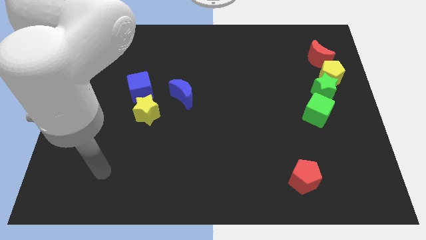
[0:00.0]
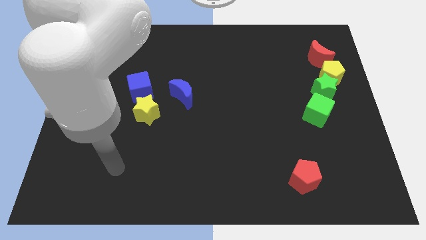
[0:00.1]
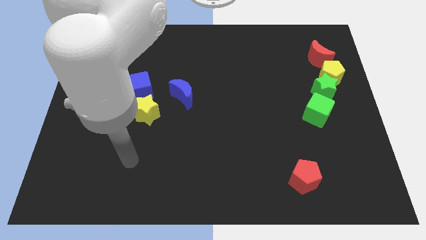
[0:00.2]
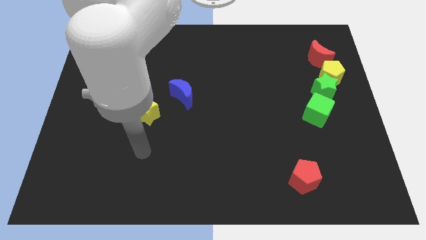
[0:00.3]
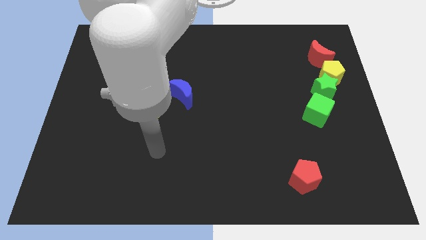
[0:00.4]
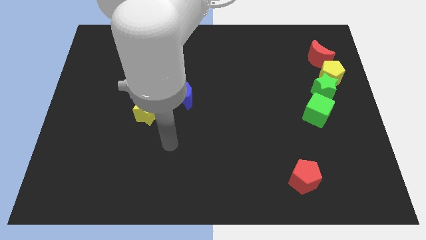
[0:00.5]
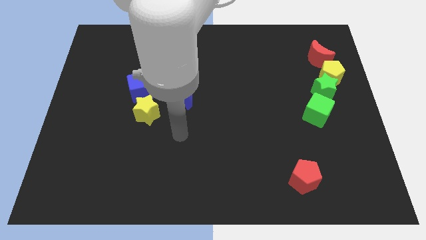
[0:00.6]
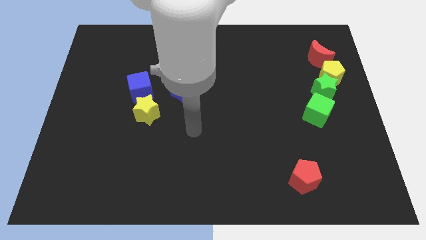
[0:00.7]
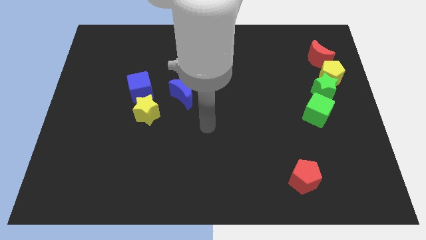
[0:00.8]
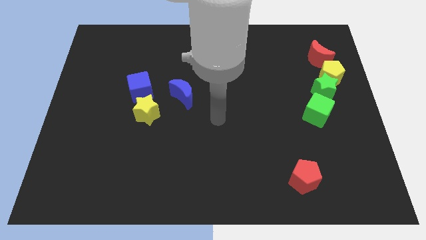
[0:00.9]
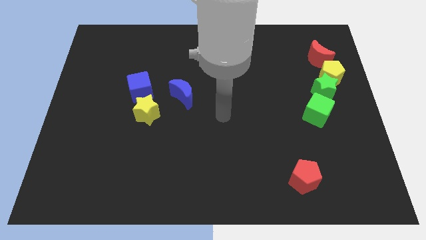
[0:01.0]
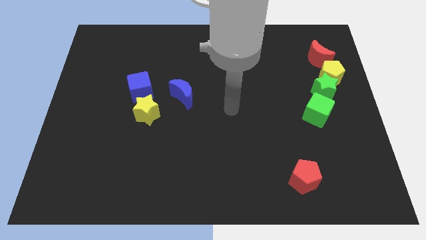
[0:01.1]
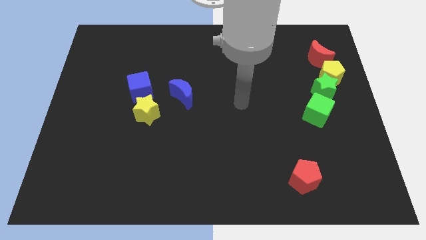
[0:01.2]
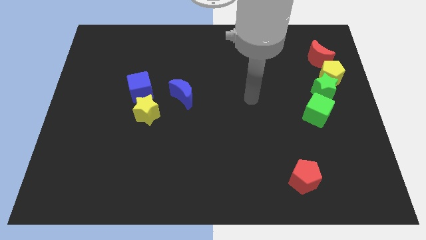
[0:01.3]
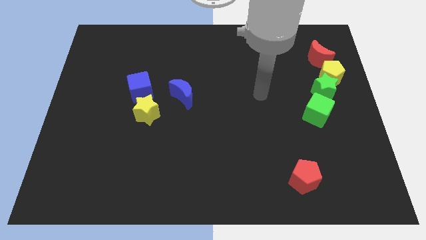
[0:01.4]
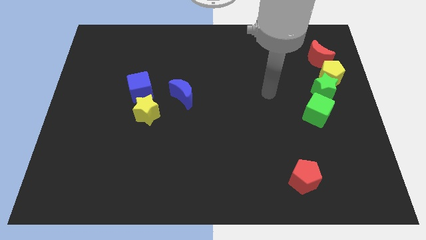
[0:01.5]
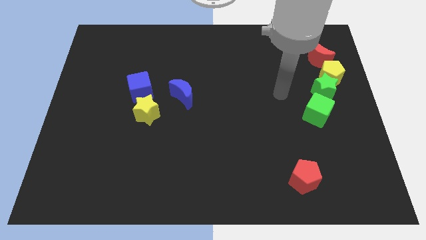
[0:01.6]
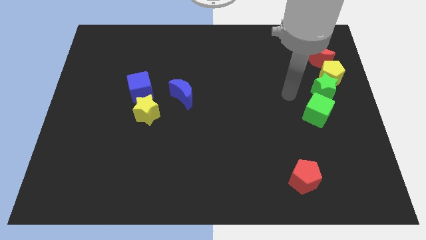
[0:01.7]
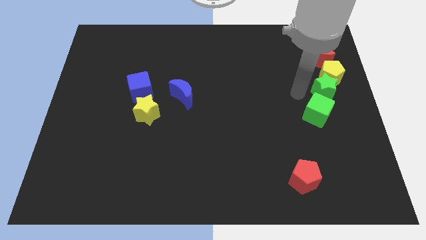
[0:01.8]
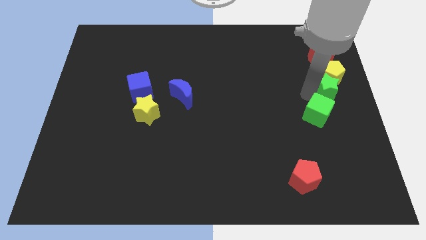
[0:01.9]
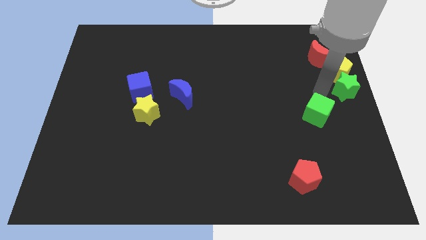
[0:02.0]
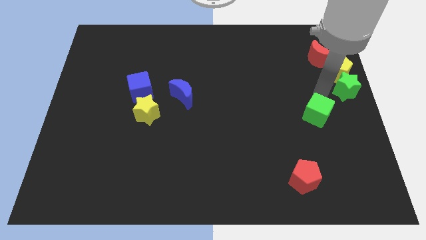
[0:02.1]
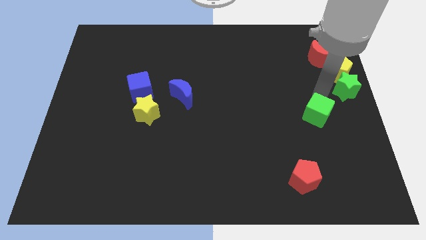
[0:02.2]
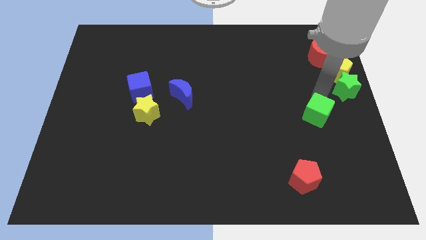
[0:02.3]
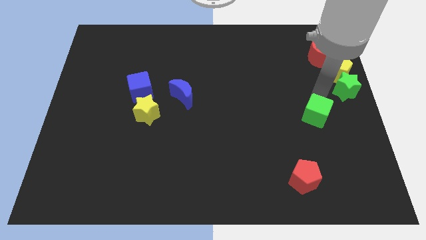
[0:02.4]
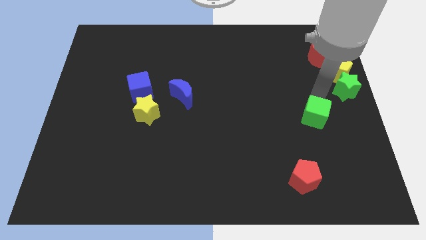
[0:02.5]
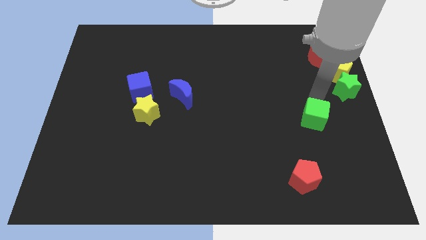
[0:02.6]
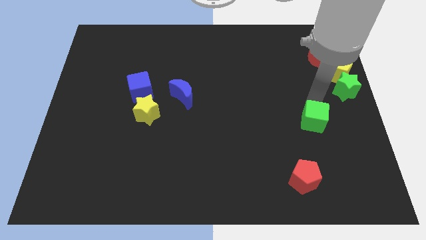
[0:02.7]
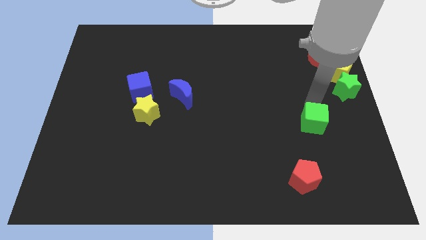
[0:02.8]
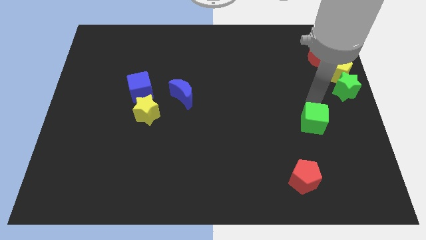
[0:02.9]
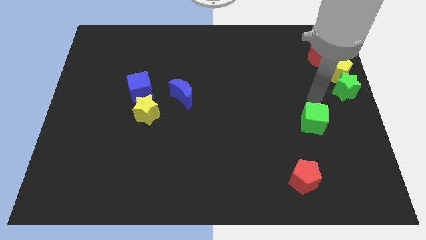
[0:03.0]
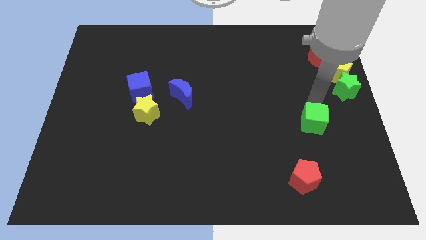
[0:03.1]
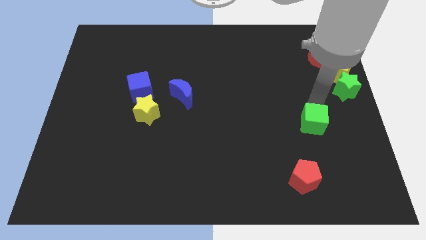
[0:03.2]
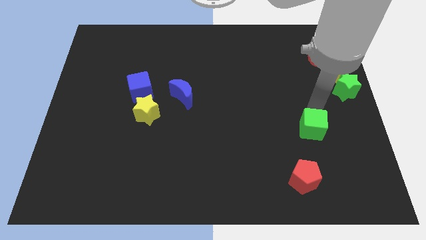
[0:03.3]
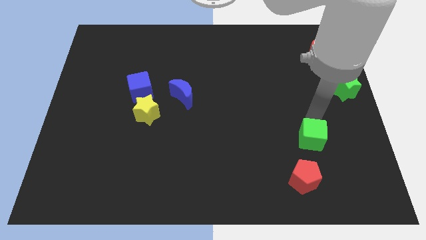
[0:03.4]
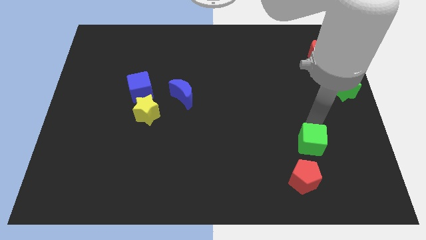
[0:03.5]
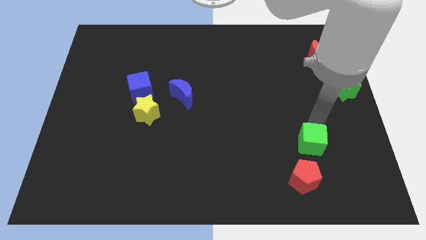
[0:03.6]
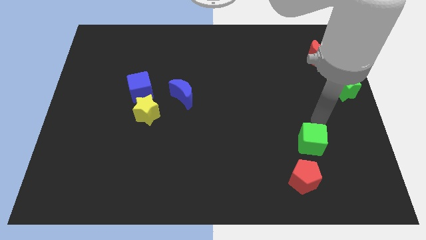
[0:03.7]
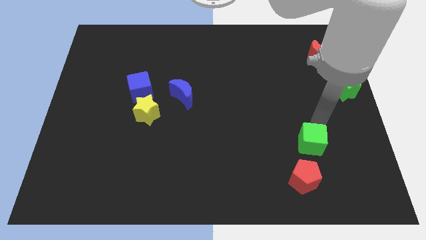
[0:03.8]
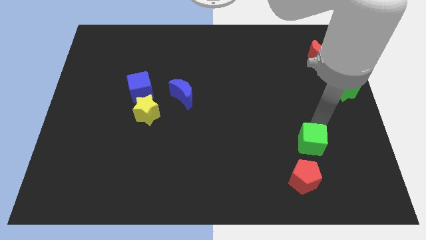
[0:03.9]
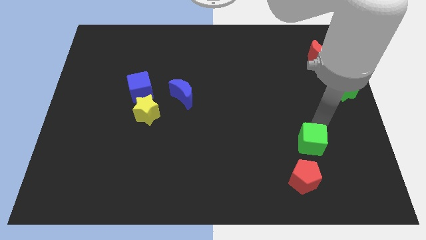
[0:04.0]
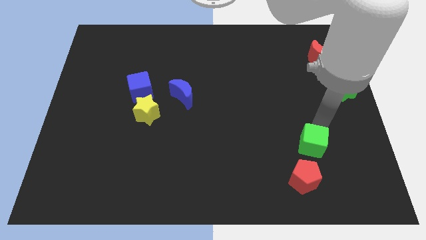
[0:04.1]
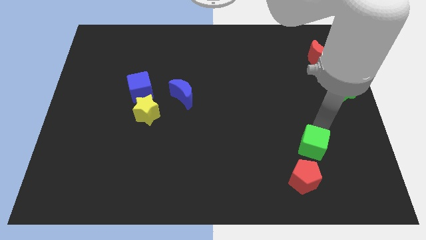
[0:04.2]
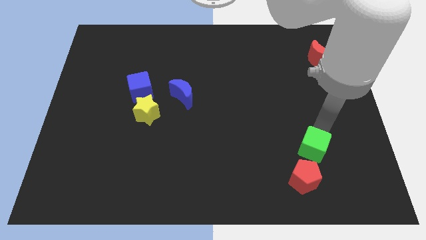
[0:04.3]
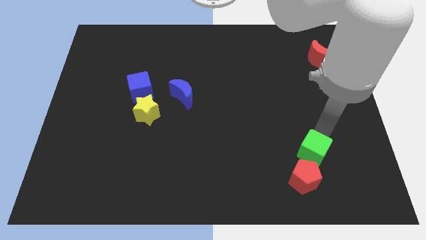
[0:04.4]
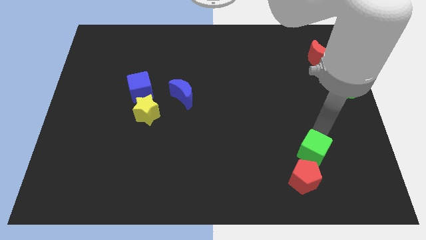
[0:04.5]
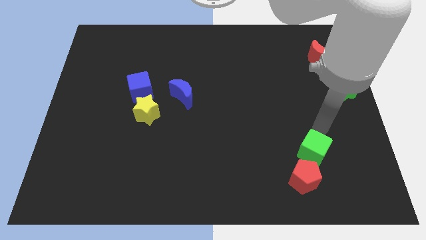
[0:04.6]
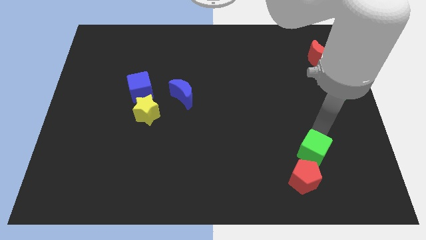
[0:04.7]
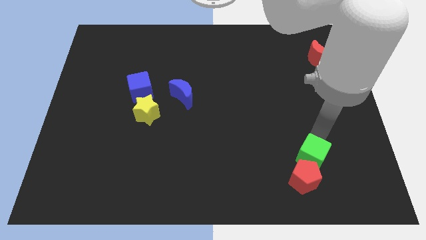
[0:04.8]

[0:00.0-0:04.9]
put the green cube close to the red pentagon

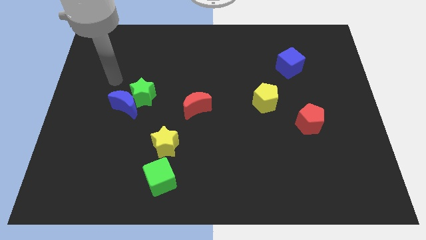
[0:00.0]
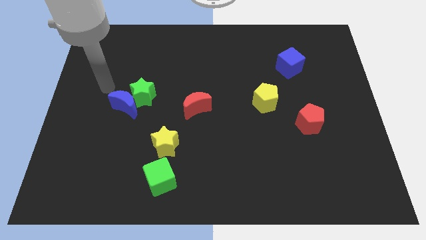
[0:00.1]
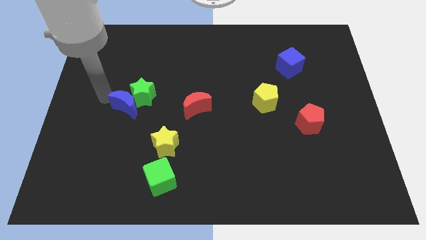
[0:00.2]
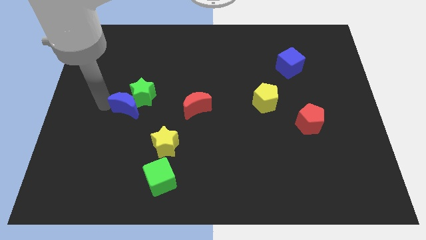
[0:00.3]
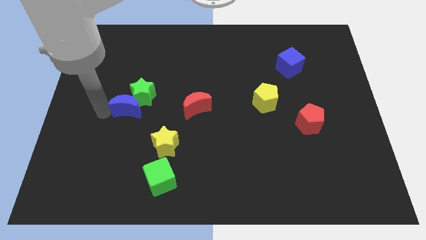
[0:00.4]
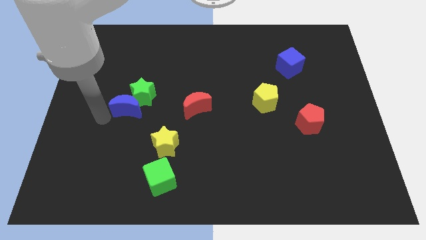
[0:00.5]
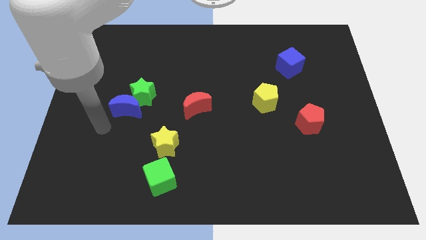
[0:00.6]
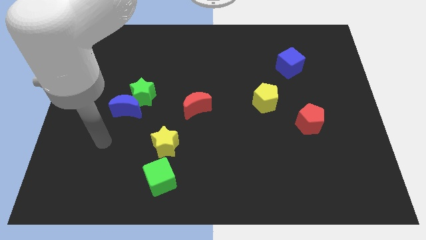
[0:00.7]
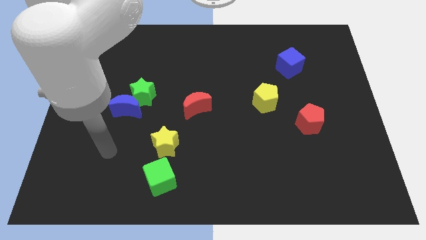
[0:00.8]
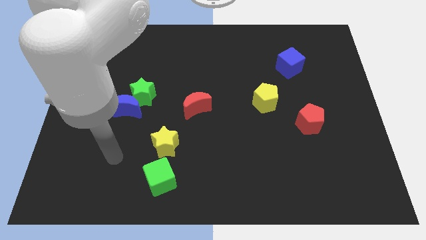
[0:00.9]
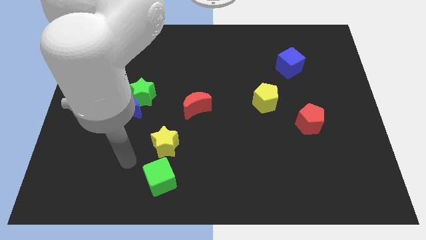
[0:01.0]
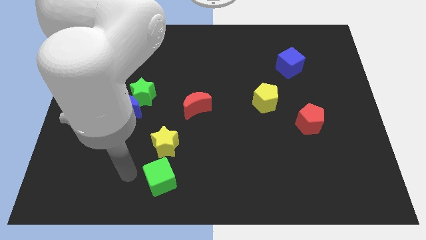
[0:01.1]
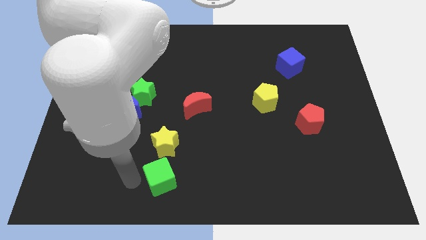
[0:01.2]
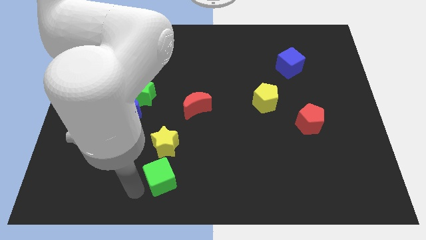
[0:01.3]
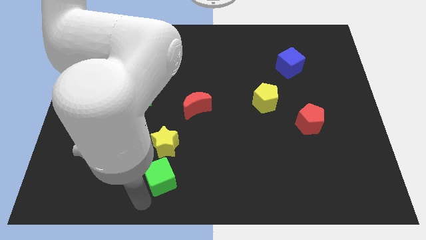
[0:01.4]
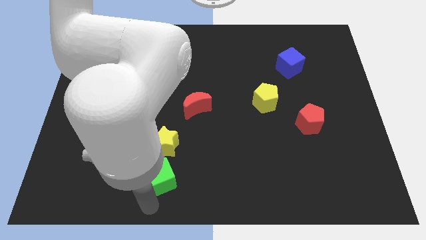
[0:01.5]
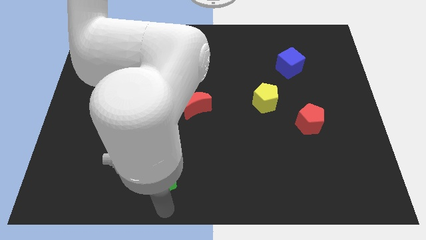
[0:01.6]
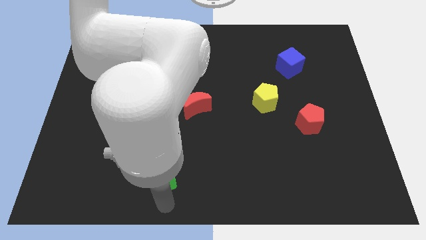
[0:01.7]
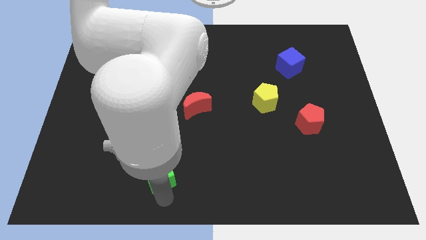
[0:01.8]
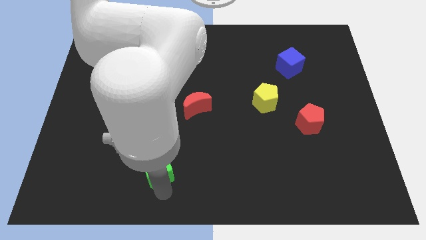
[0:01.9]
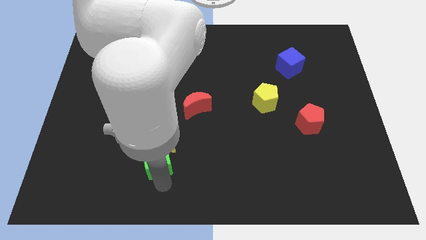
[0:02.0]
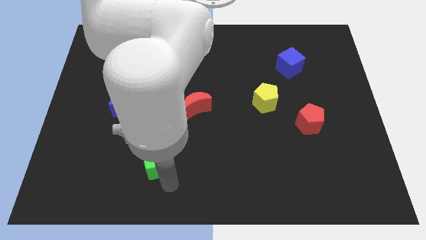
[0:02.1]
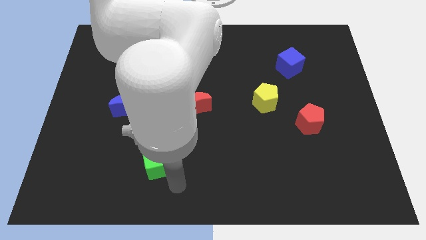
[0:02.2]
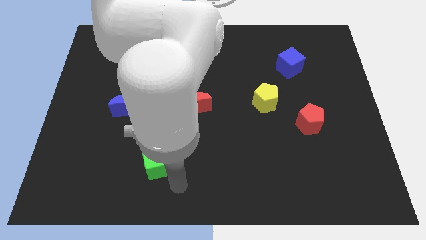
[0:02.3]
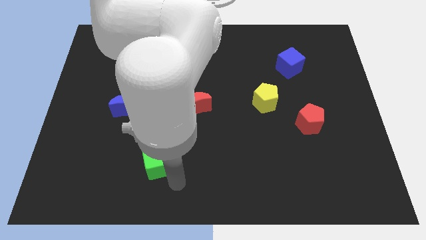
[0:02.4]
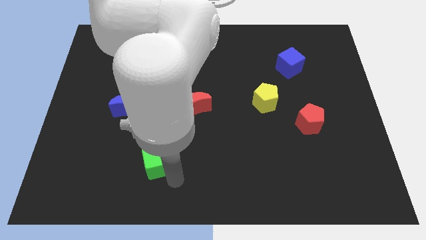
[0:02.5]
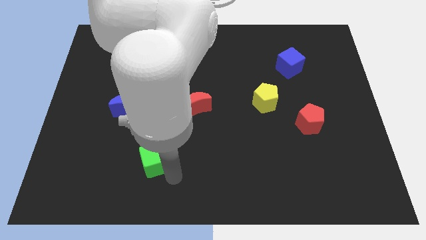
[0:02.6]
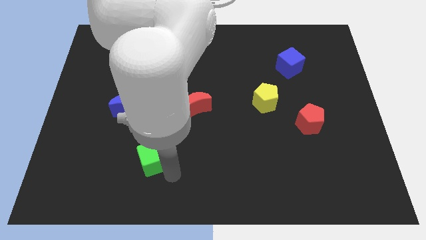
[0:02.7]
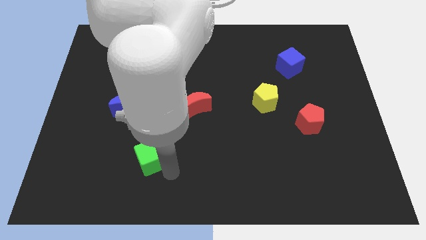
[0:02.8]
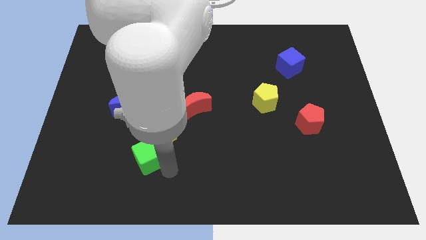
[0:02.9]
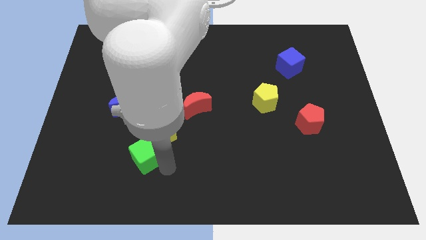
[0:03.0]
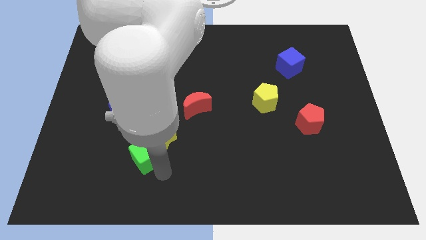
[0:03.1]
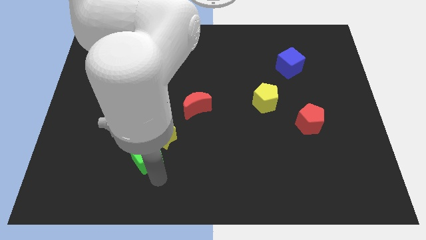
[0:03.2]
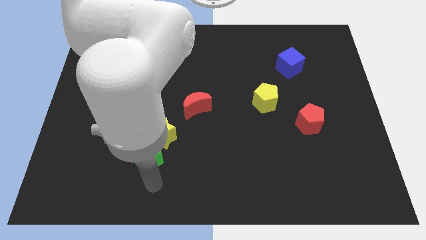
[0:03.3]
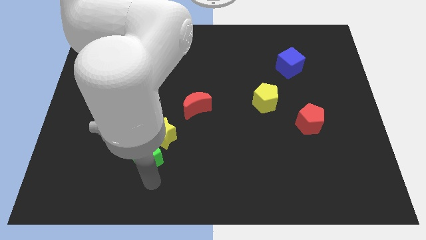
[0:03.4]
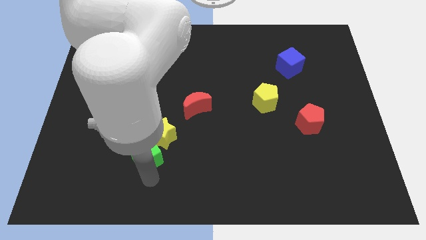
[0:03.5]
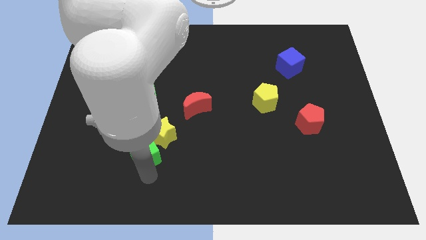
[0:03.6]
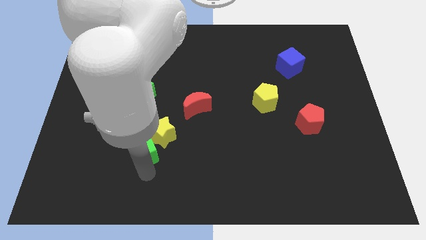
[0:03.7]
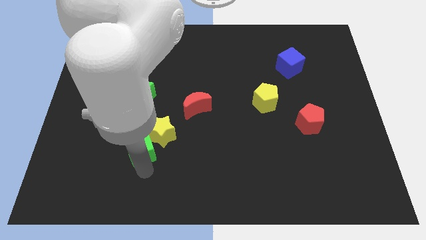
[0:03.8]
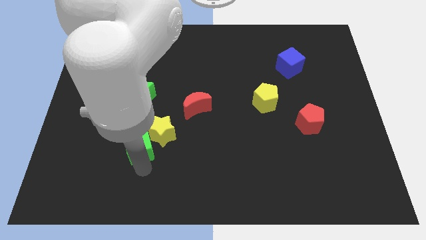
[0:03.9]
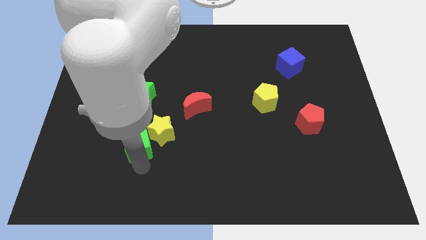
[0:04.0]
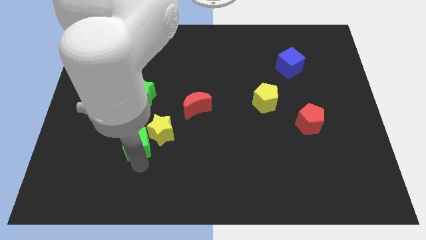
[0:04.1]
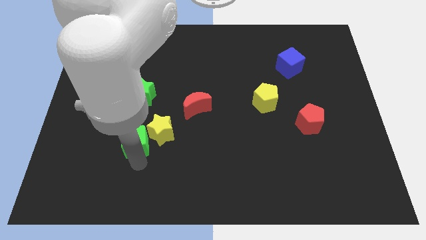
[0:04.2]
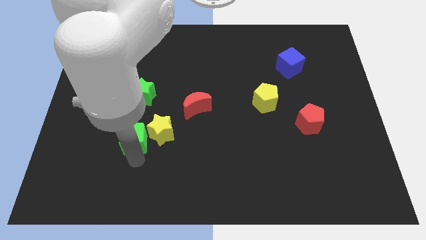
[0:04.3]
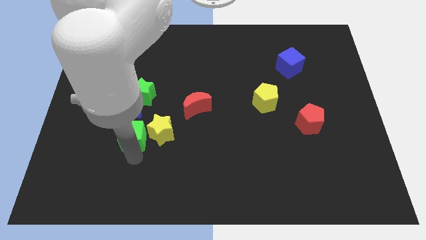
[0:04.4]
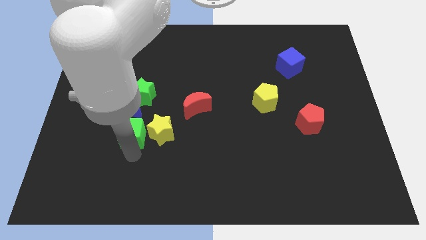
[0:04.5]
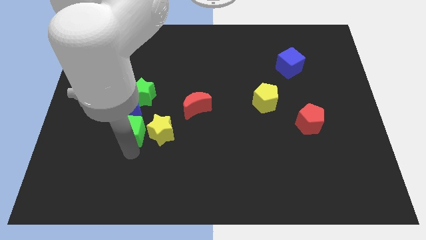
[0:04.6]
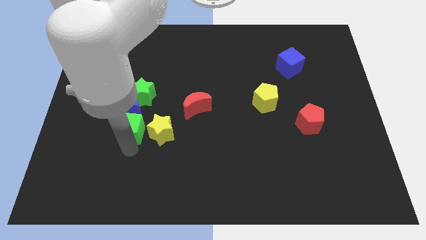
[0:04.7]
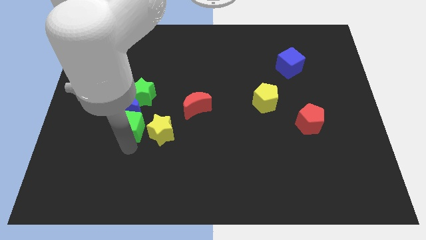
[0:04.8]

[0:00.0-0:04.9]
slide the green cube close to the blue moon
